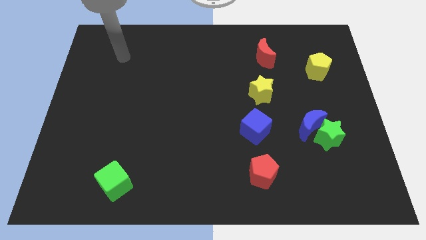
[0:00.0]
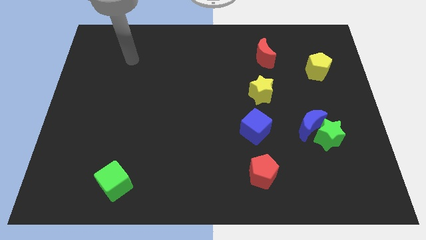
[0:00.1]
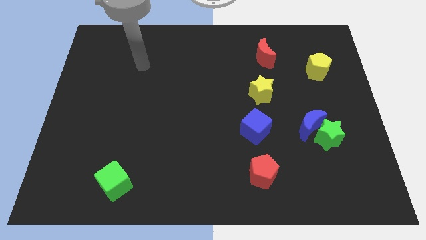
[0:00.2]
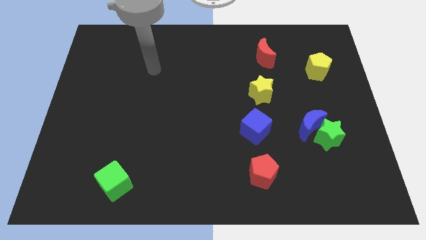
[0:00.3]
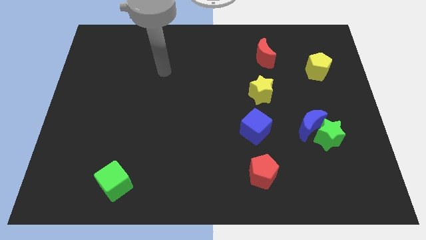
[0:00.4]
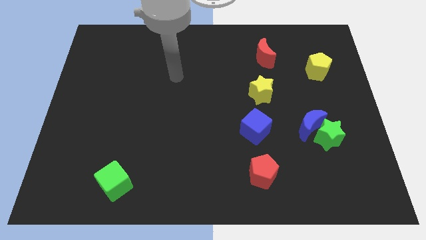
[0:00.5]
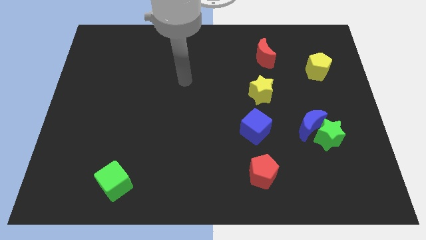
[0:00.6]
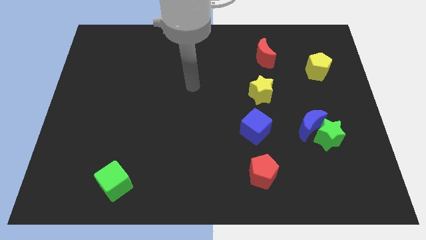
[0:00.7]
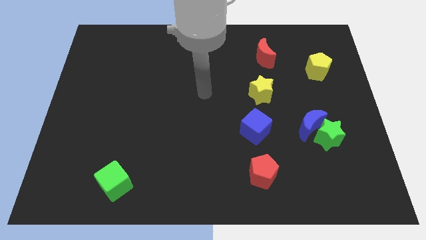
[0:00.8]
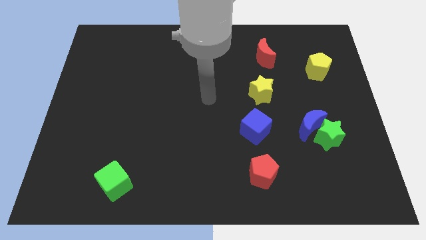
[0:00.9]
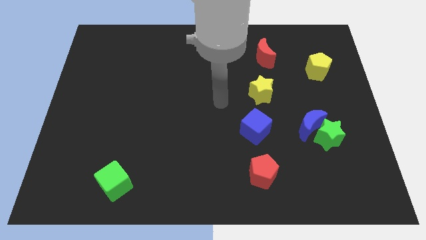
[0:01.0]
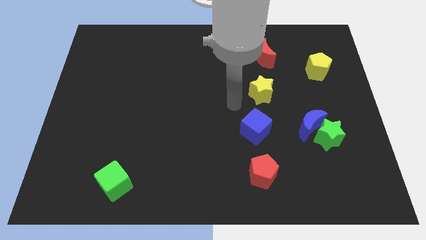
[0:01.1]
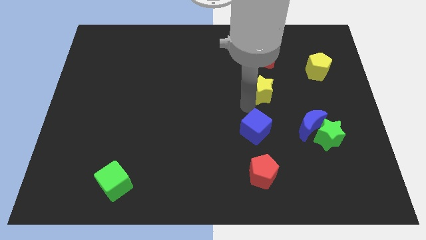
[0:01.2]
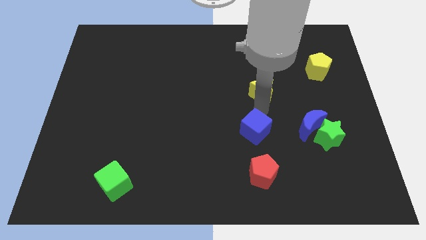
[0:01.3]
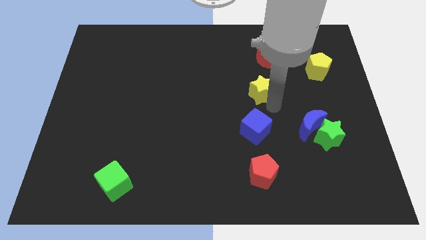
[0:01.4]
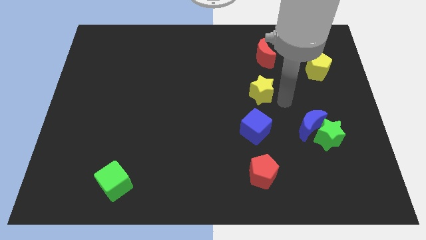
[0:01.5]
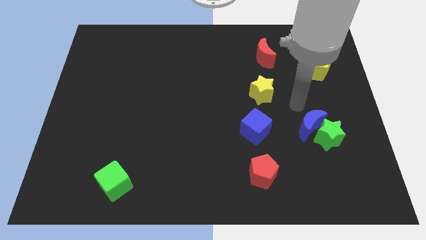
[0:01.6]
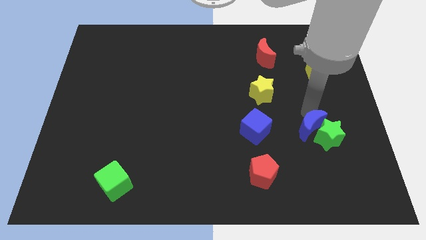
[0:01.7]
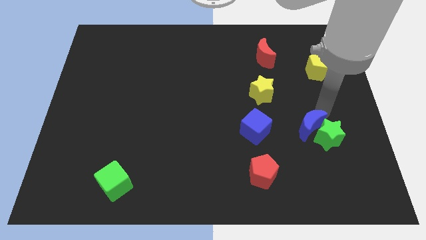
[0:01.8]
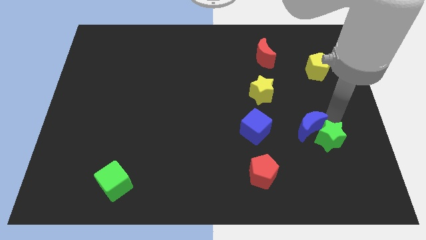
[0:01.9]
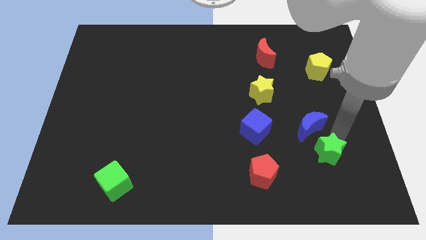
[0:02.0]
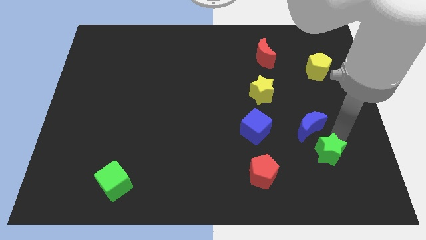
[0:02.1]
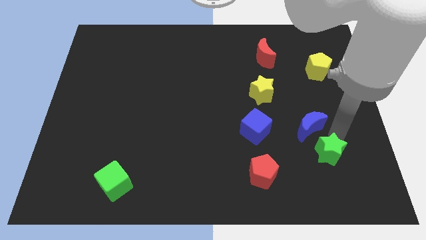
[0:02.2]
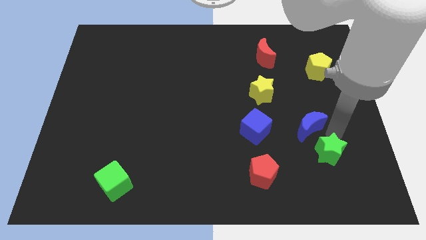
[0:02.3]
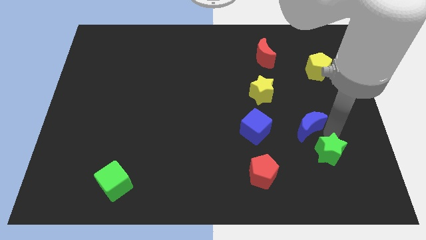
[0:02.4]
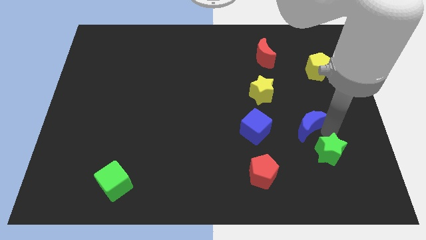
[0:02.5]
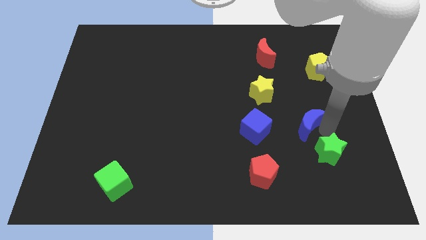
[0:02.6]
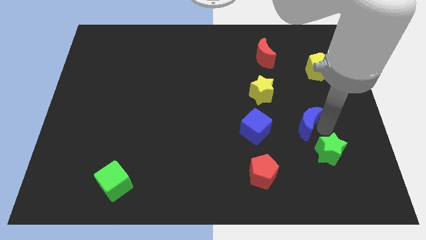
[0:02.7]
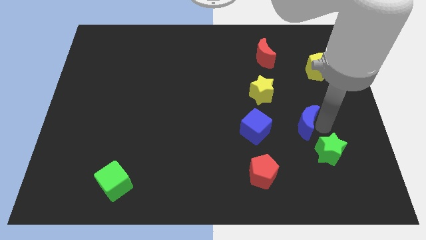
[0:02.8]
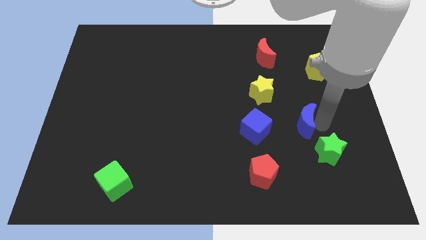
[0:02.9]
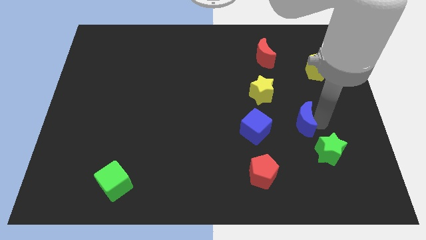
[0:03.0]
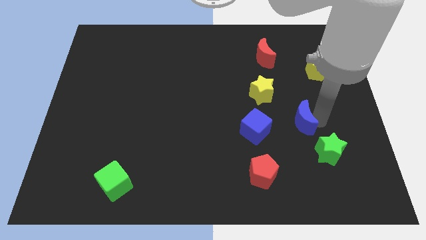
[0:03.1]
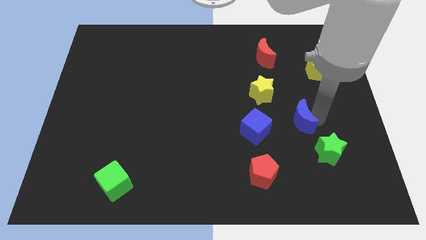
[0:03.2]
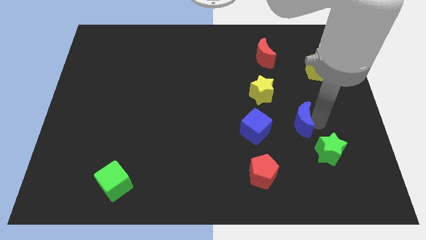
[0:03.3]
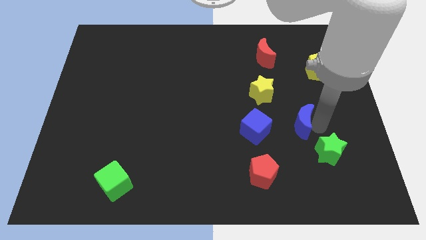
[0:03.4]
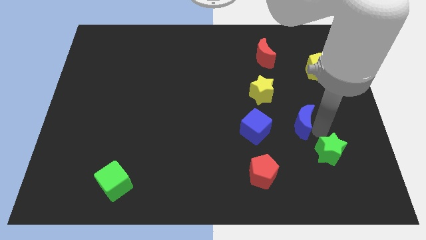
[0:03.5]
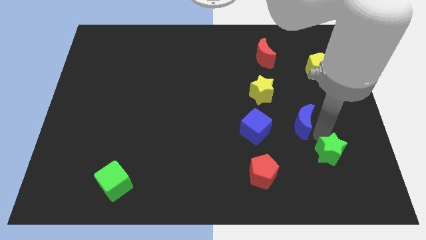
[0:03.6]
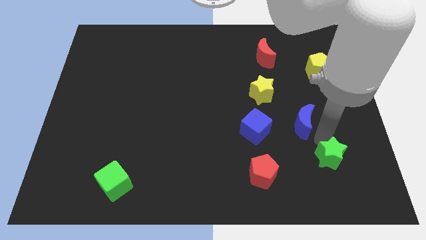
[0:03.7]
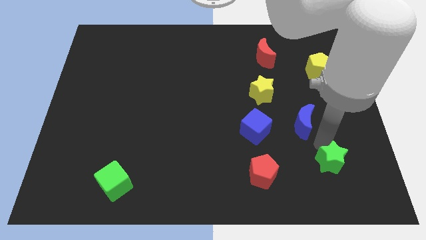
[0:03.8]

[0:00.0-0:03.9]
separate the blue moon from the green star

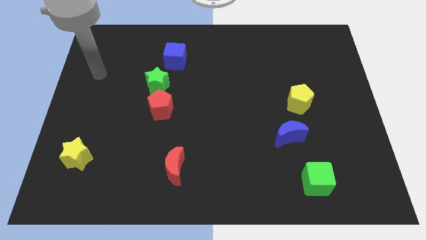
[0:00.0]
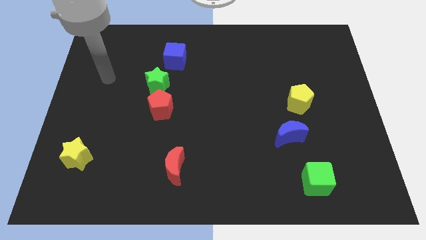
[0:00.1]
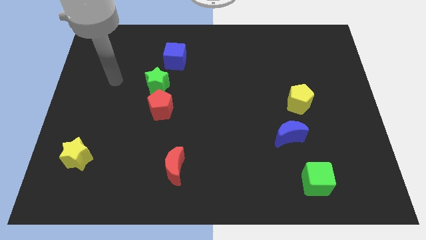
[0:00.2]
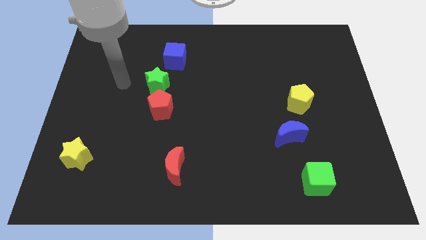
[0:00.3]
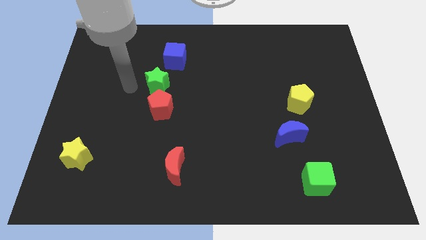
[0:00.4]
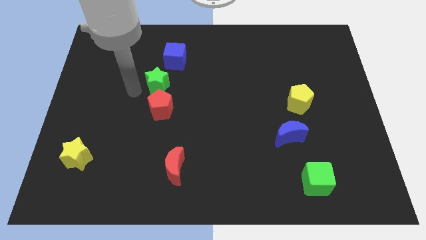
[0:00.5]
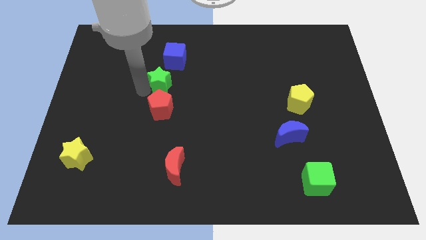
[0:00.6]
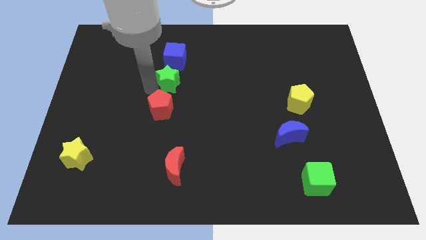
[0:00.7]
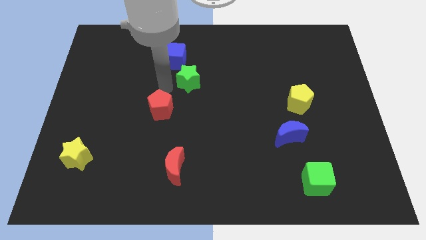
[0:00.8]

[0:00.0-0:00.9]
pull the red pentagon apart from the green star

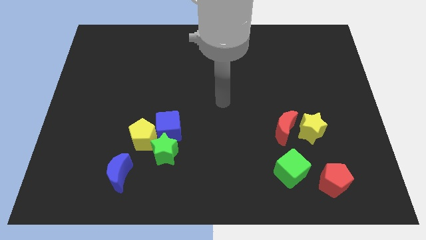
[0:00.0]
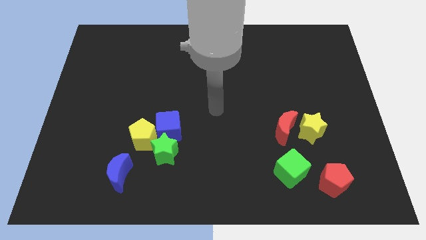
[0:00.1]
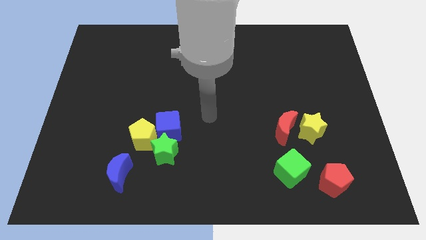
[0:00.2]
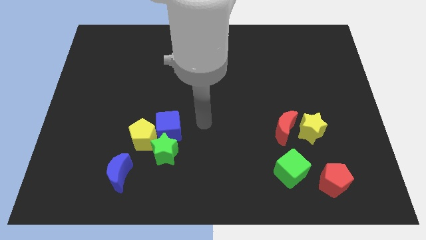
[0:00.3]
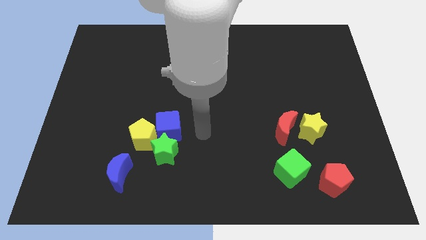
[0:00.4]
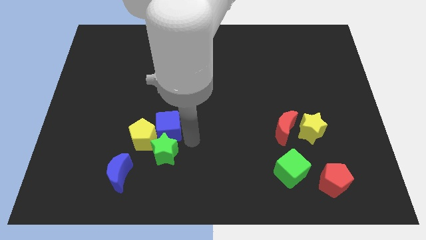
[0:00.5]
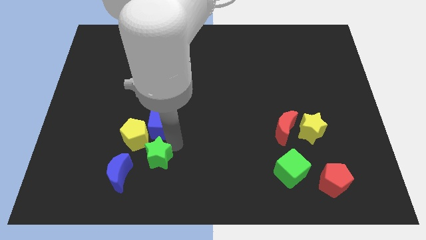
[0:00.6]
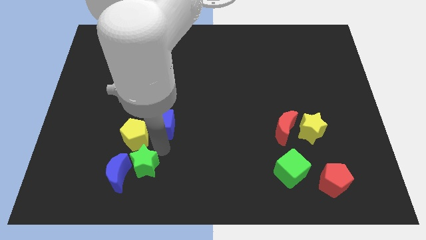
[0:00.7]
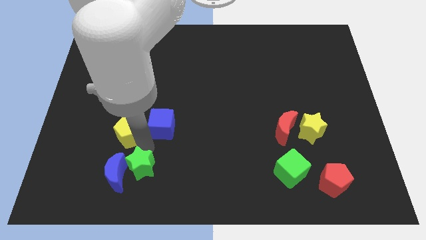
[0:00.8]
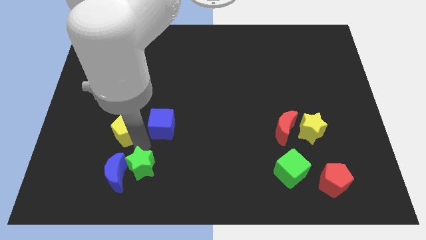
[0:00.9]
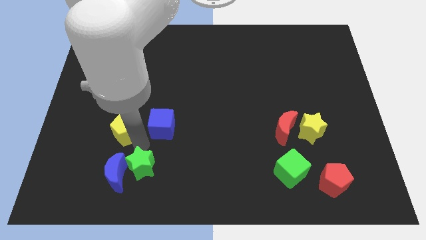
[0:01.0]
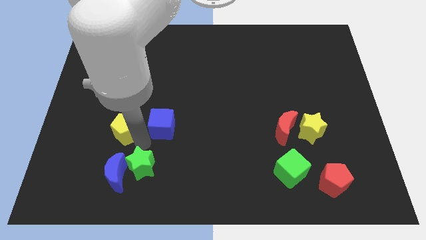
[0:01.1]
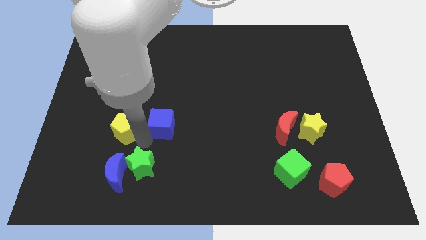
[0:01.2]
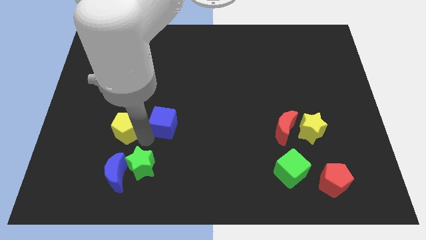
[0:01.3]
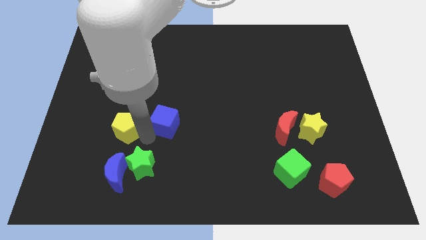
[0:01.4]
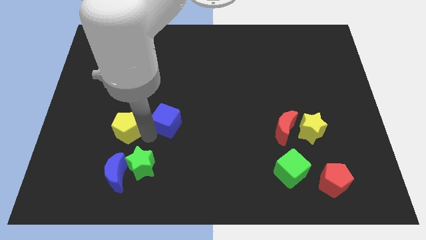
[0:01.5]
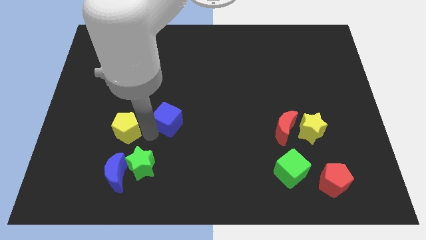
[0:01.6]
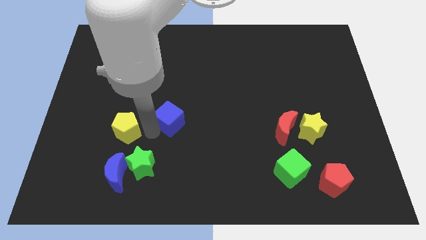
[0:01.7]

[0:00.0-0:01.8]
separate the blue cube from the green star and yellow pentagon

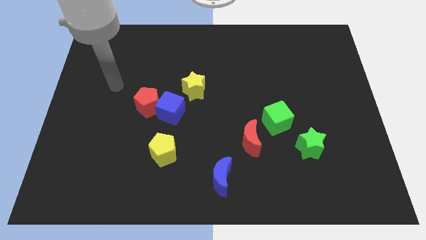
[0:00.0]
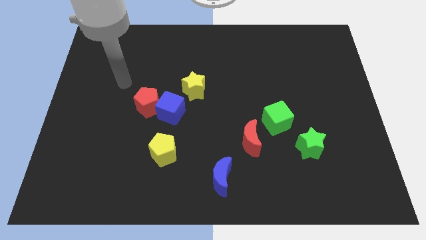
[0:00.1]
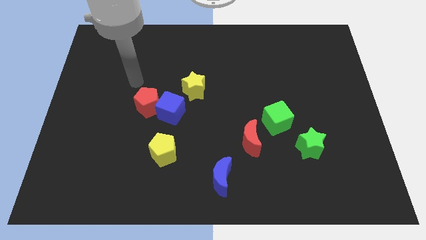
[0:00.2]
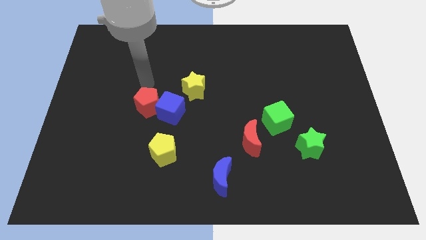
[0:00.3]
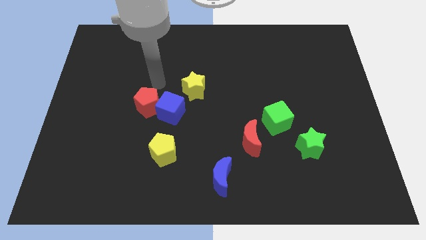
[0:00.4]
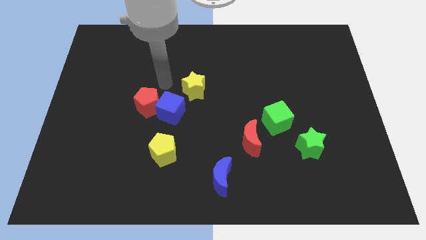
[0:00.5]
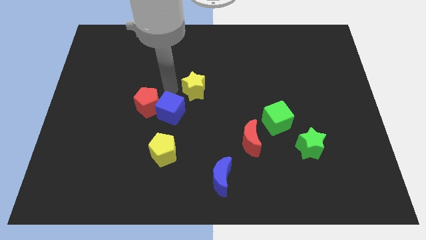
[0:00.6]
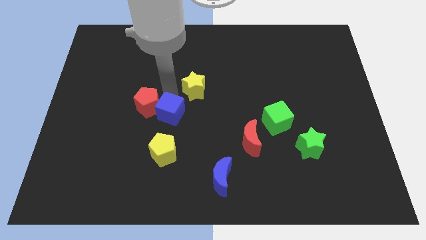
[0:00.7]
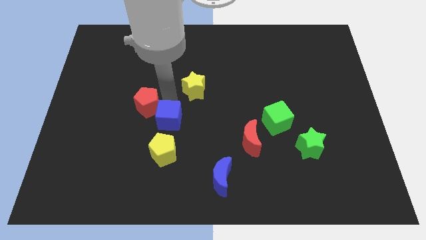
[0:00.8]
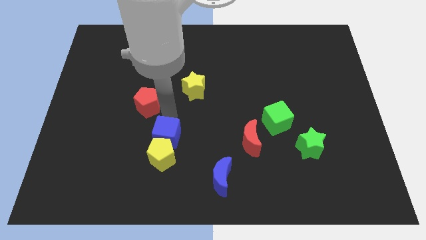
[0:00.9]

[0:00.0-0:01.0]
pull the red pentagon apart from the blue cube

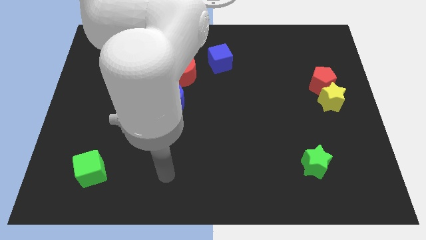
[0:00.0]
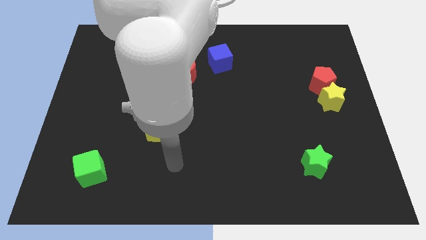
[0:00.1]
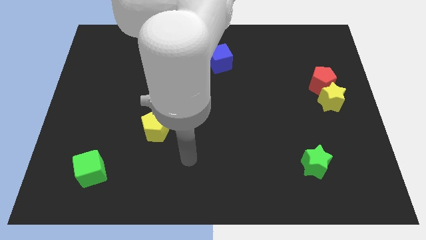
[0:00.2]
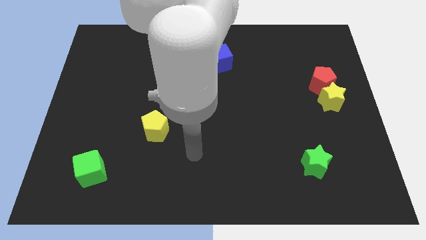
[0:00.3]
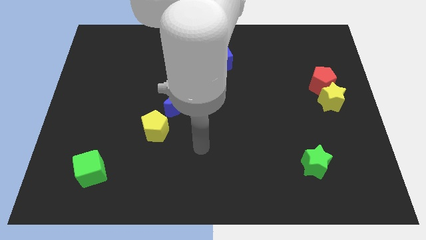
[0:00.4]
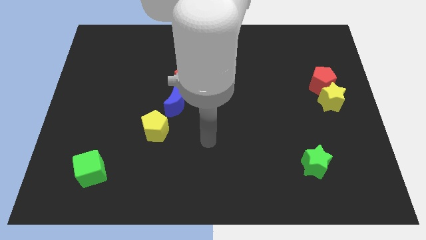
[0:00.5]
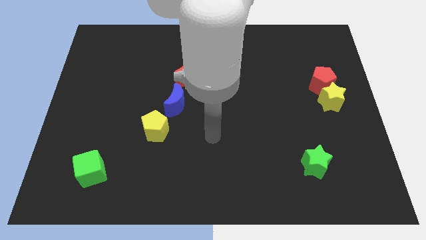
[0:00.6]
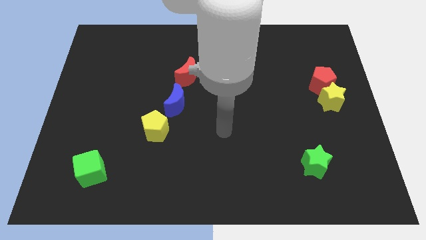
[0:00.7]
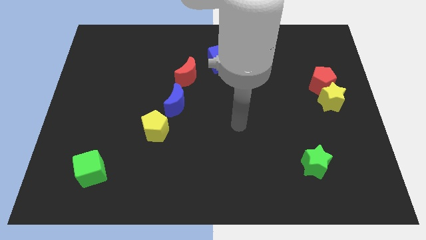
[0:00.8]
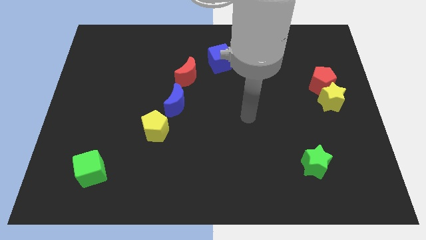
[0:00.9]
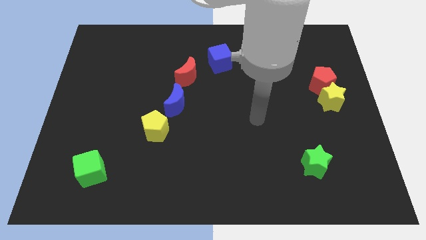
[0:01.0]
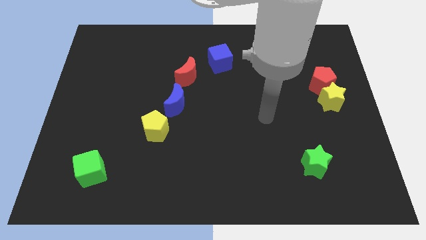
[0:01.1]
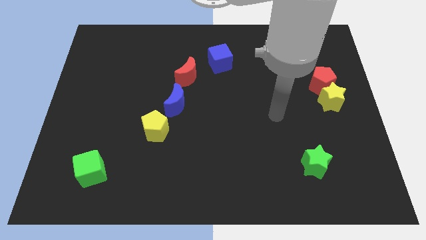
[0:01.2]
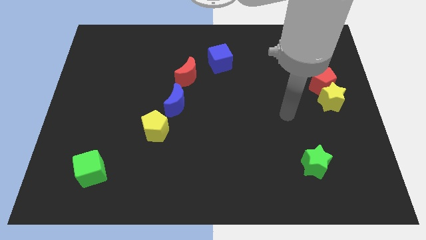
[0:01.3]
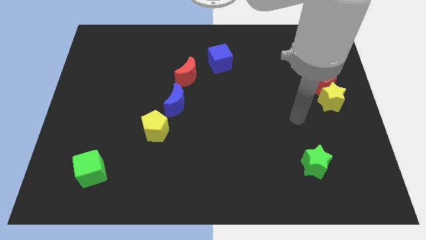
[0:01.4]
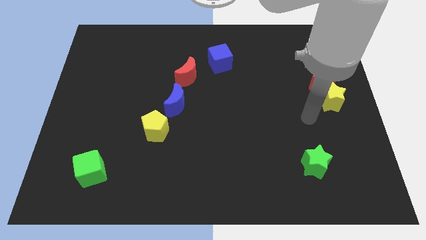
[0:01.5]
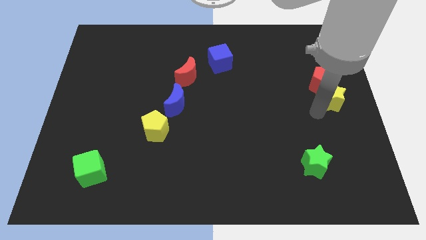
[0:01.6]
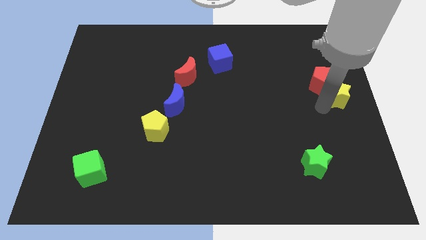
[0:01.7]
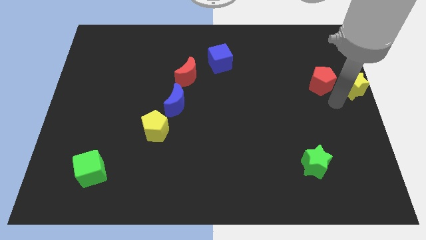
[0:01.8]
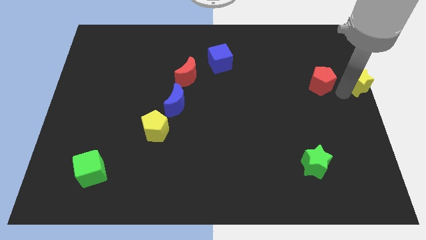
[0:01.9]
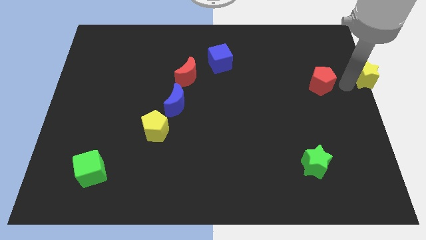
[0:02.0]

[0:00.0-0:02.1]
pull the red pentagon apart from the yellow star
